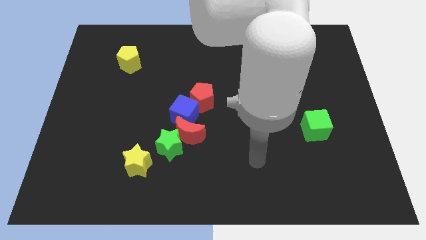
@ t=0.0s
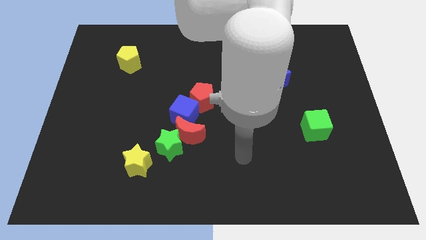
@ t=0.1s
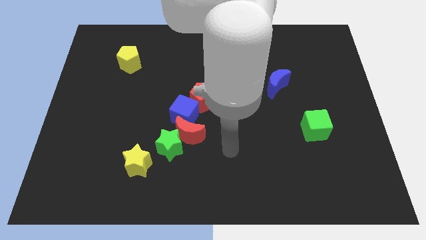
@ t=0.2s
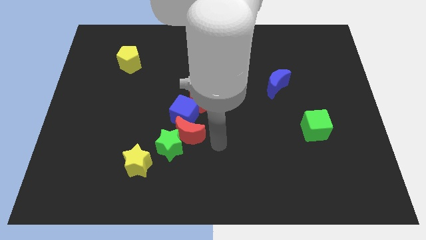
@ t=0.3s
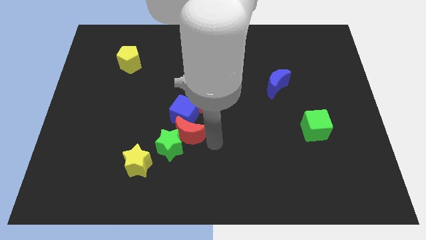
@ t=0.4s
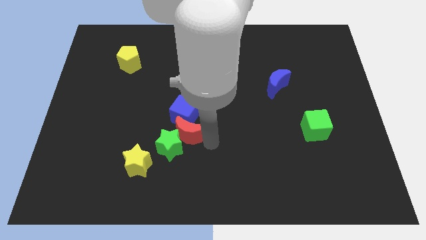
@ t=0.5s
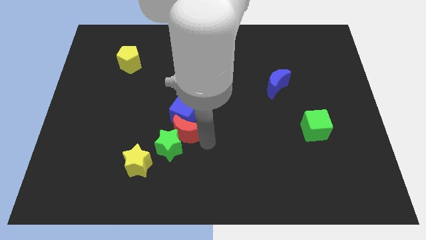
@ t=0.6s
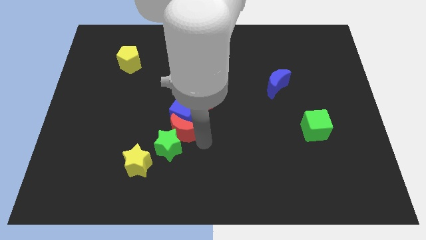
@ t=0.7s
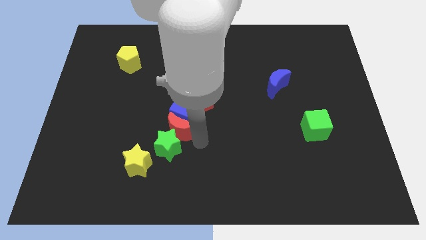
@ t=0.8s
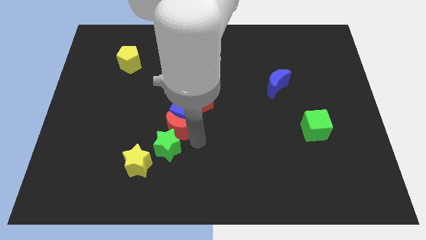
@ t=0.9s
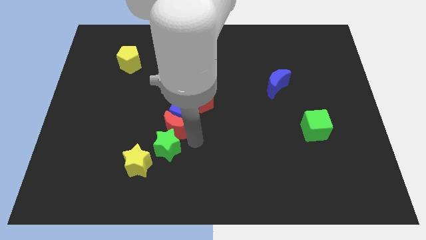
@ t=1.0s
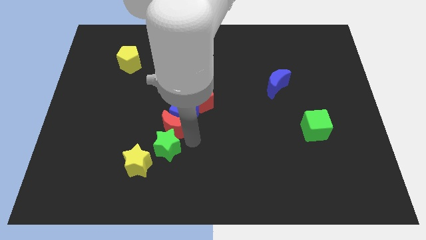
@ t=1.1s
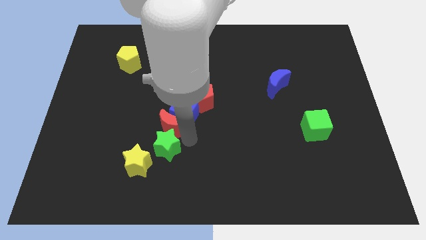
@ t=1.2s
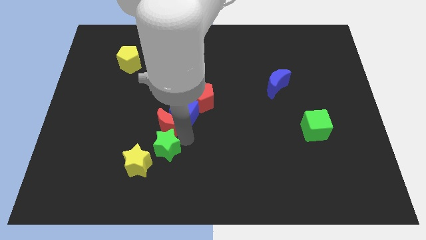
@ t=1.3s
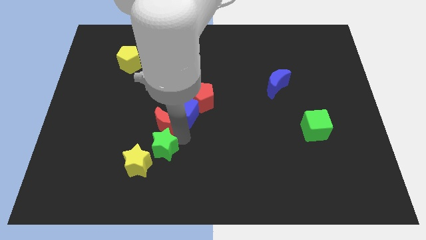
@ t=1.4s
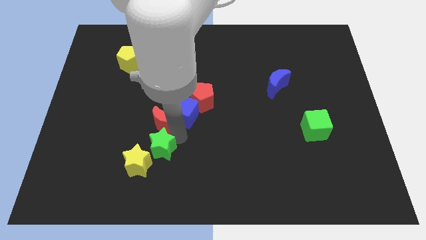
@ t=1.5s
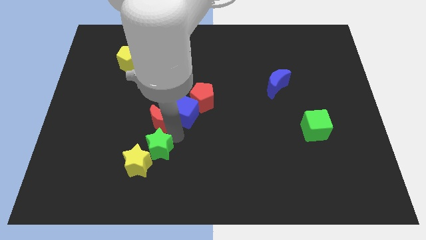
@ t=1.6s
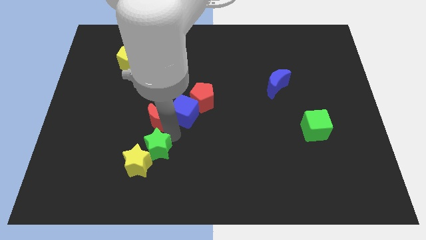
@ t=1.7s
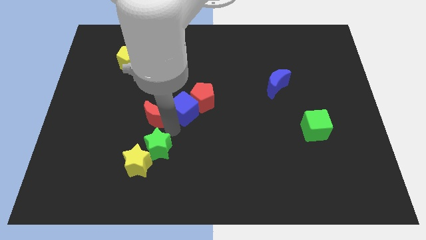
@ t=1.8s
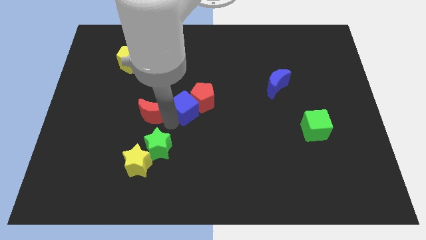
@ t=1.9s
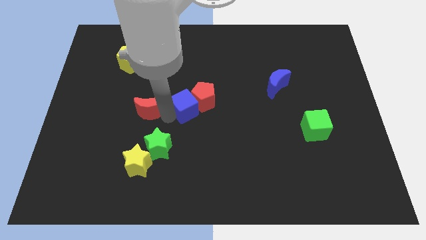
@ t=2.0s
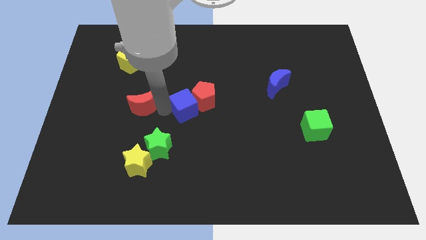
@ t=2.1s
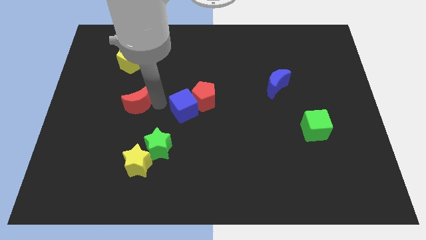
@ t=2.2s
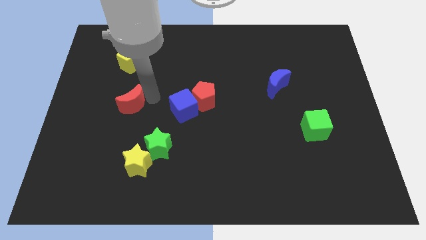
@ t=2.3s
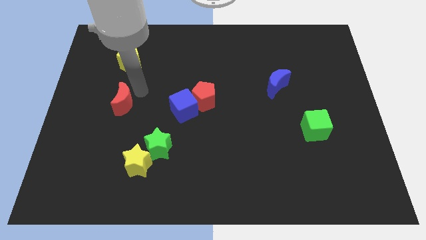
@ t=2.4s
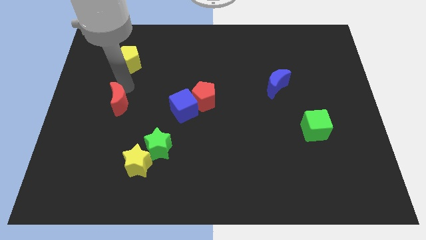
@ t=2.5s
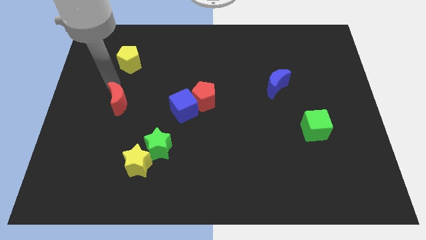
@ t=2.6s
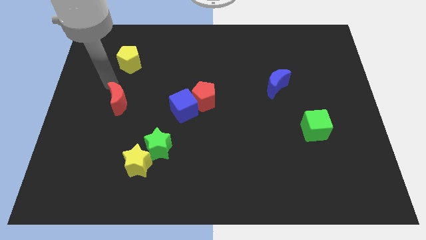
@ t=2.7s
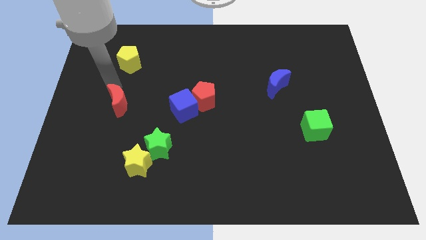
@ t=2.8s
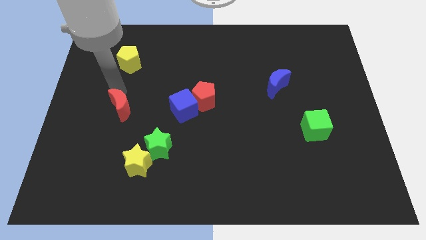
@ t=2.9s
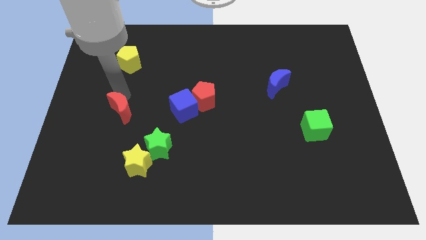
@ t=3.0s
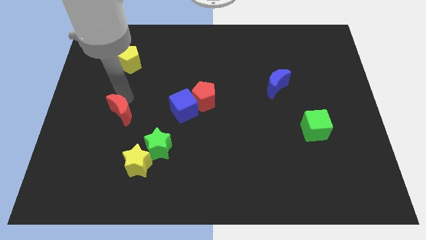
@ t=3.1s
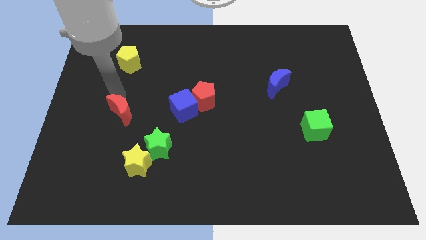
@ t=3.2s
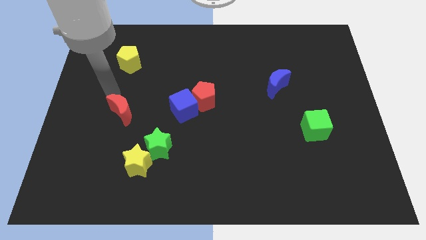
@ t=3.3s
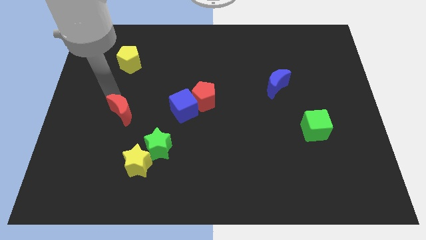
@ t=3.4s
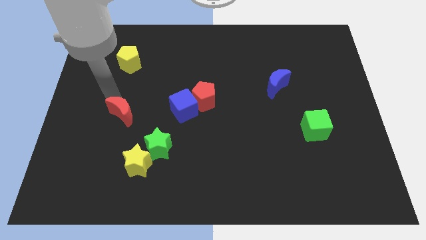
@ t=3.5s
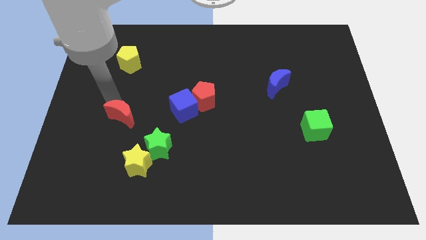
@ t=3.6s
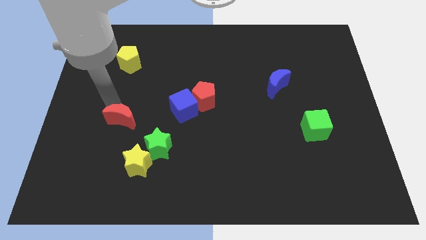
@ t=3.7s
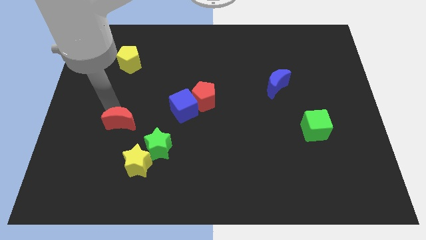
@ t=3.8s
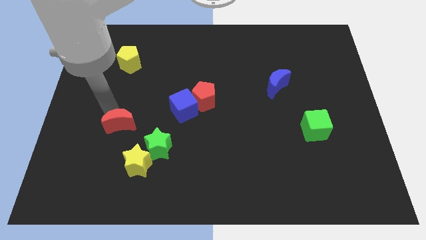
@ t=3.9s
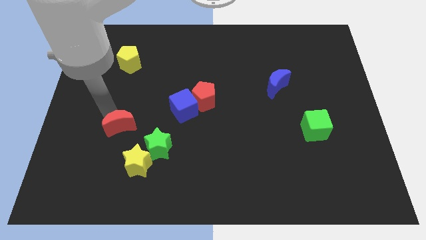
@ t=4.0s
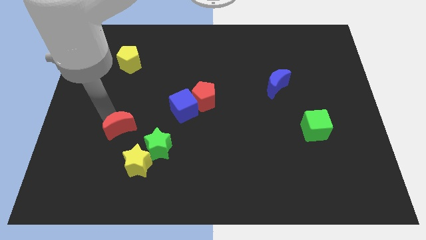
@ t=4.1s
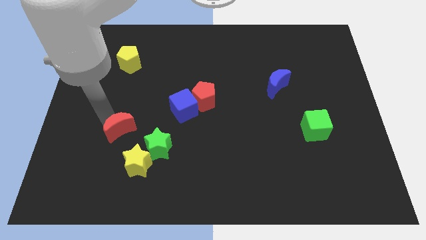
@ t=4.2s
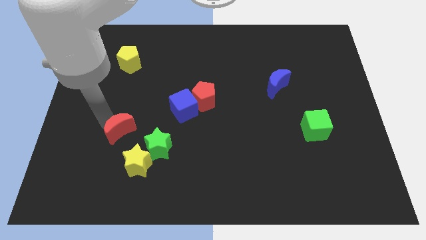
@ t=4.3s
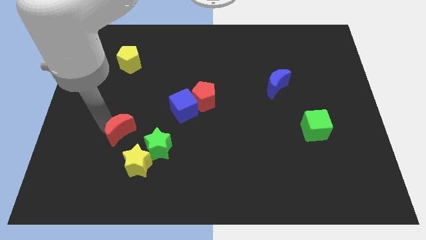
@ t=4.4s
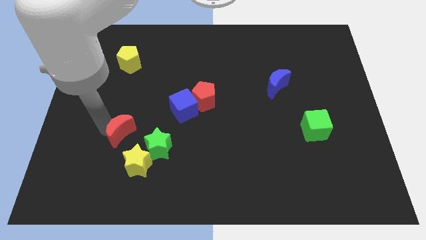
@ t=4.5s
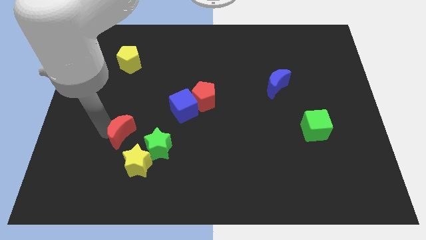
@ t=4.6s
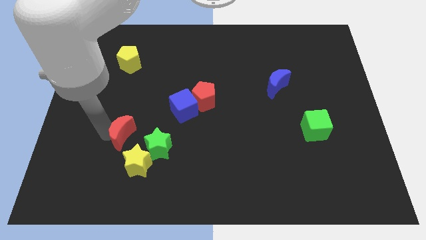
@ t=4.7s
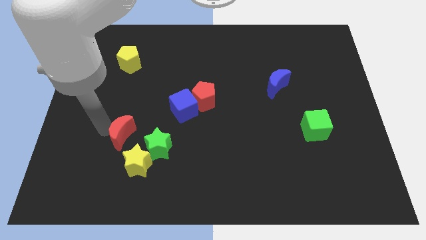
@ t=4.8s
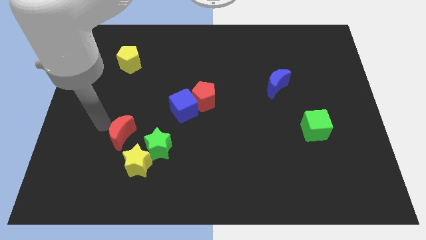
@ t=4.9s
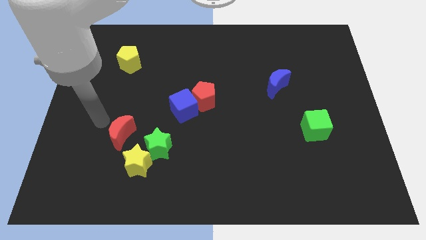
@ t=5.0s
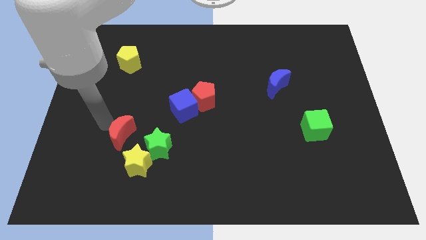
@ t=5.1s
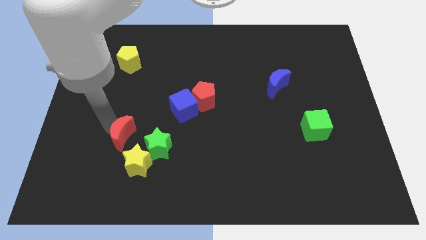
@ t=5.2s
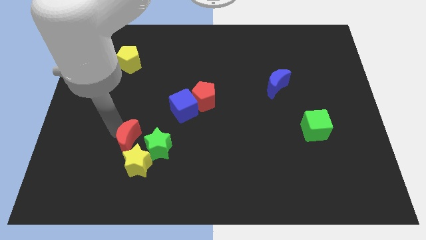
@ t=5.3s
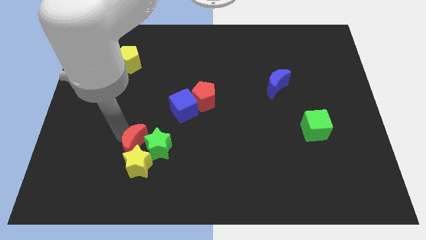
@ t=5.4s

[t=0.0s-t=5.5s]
push the red moon towards the yellow star

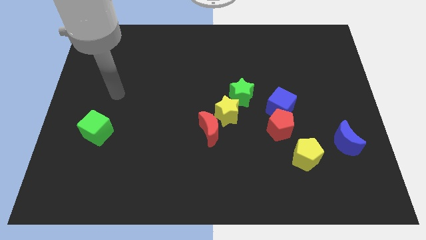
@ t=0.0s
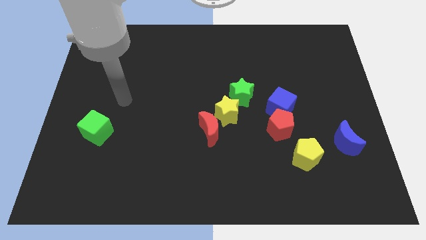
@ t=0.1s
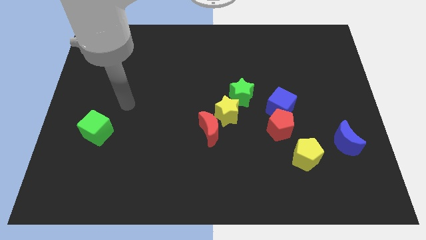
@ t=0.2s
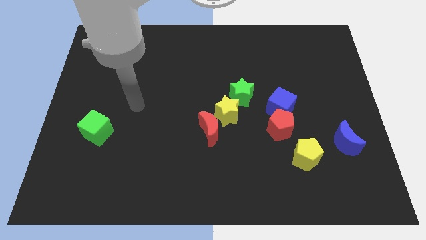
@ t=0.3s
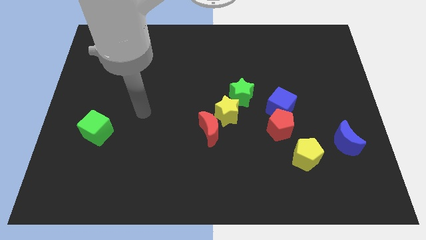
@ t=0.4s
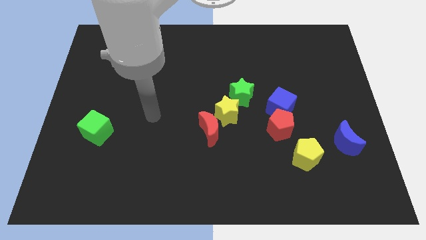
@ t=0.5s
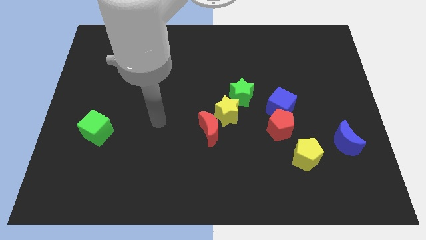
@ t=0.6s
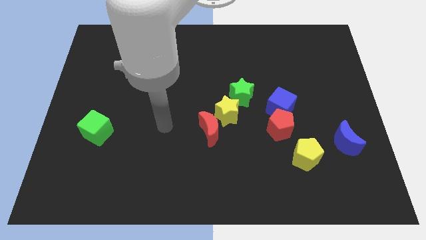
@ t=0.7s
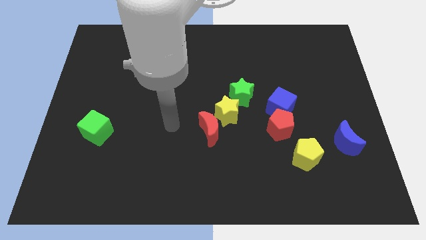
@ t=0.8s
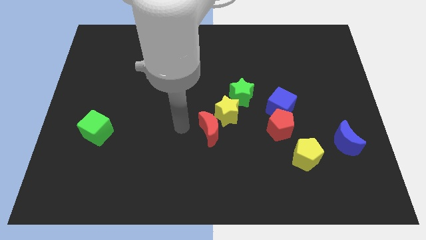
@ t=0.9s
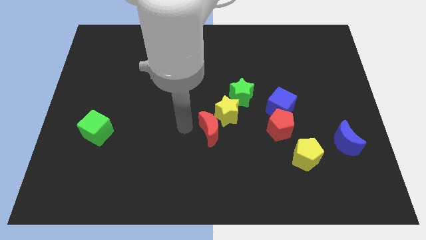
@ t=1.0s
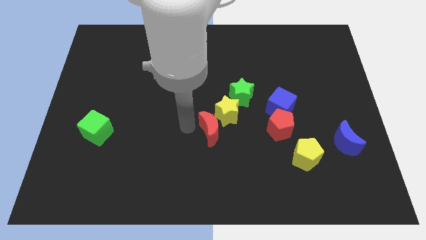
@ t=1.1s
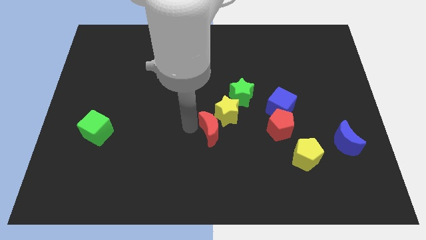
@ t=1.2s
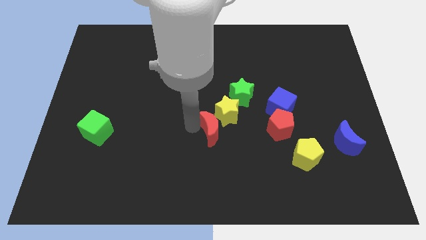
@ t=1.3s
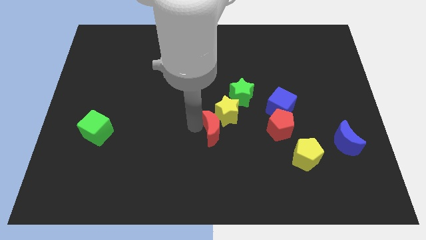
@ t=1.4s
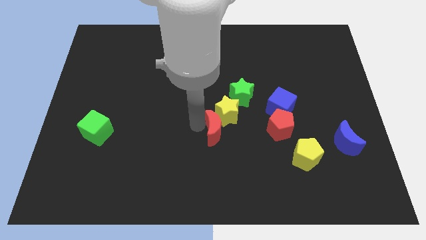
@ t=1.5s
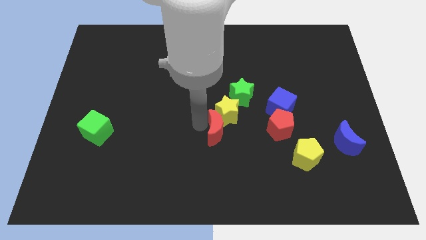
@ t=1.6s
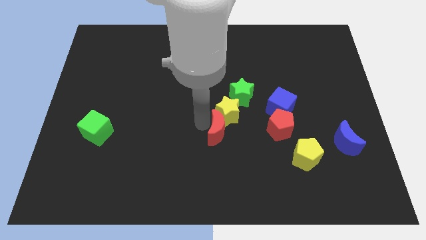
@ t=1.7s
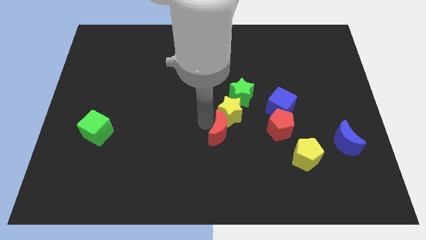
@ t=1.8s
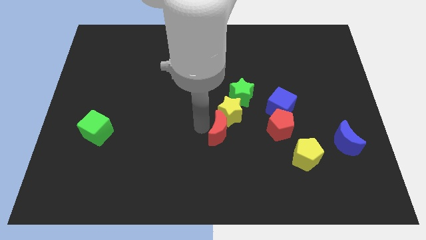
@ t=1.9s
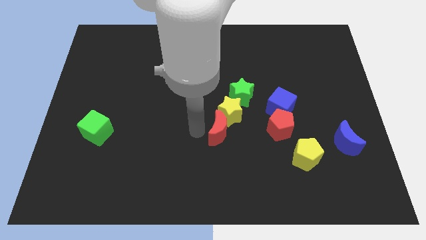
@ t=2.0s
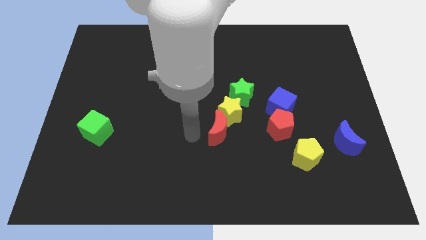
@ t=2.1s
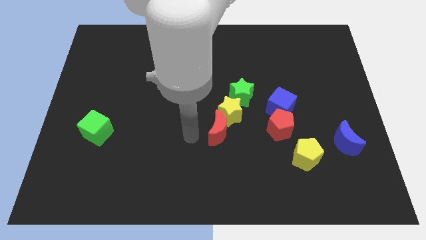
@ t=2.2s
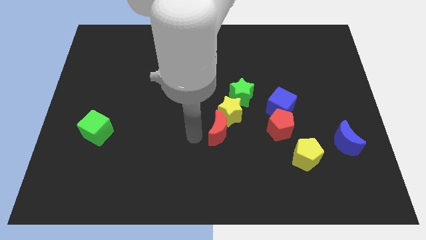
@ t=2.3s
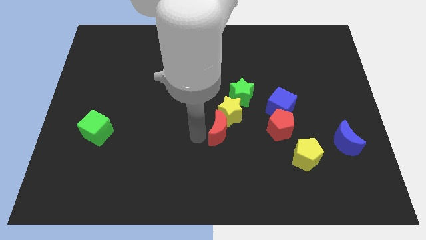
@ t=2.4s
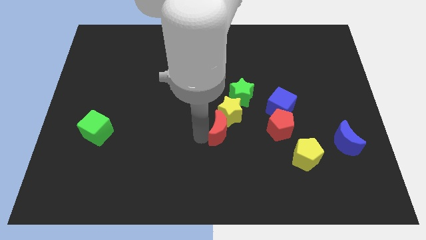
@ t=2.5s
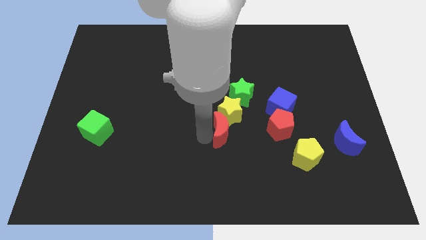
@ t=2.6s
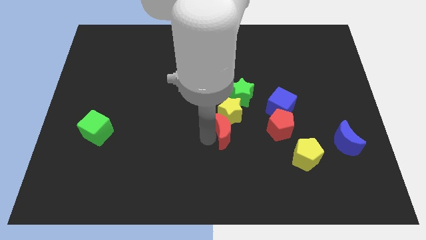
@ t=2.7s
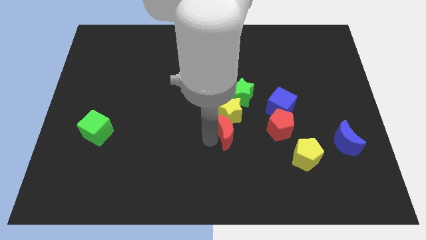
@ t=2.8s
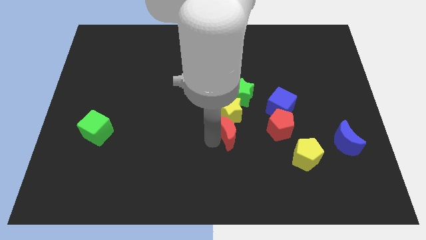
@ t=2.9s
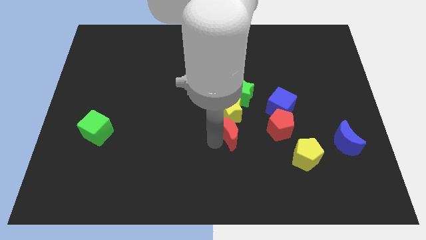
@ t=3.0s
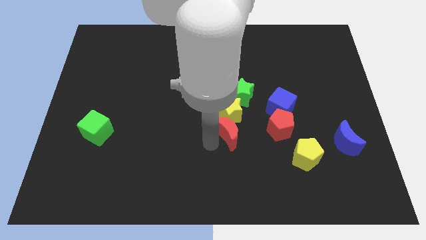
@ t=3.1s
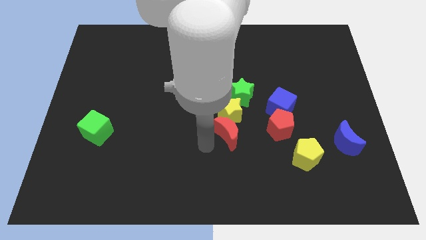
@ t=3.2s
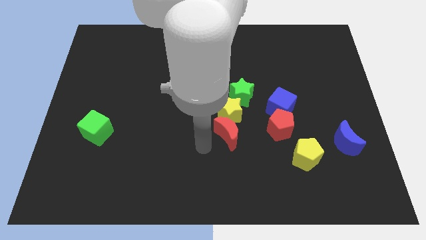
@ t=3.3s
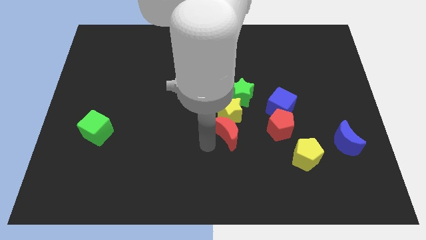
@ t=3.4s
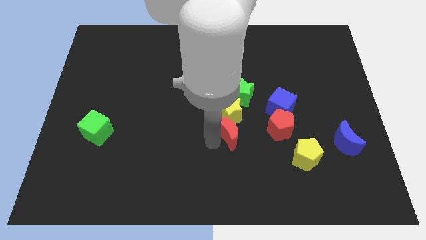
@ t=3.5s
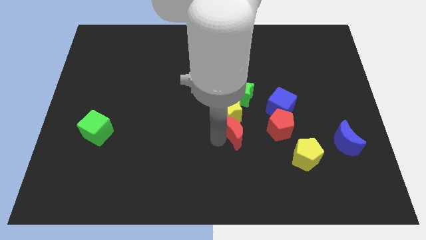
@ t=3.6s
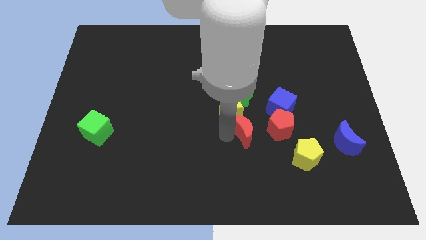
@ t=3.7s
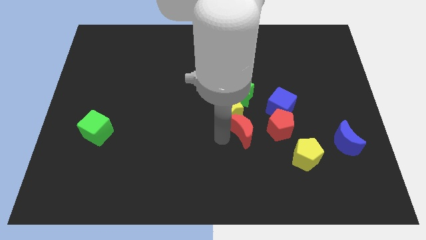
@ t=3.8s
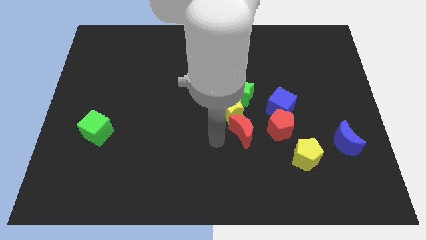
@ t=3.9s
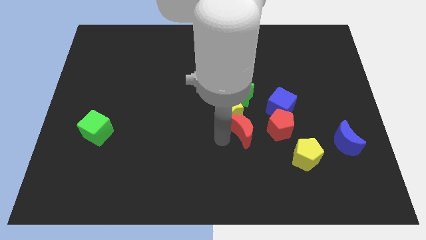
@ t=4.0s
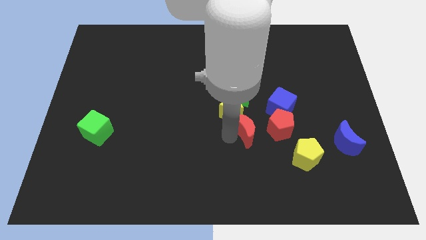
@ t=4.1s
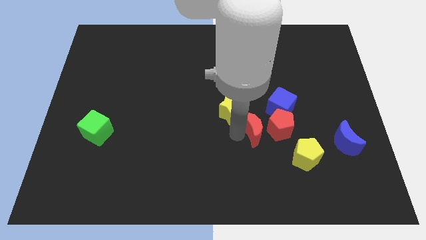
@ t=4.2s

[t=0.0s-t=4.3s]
push the red moon close to the red pentagon
